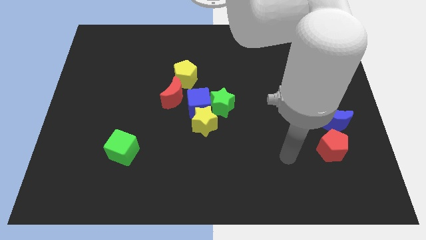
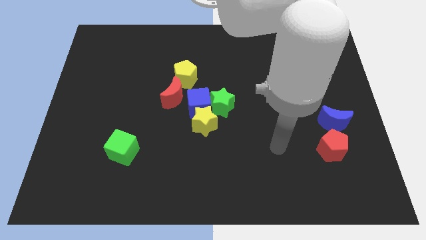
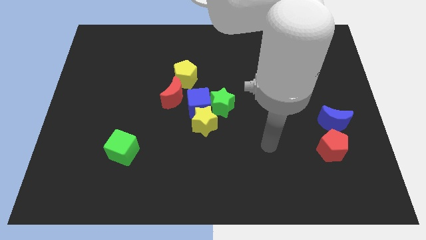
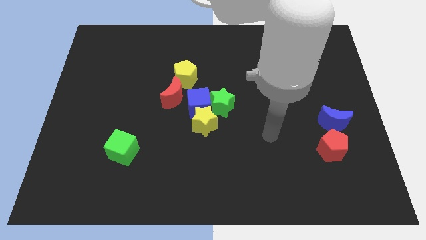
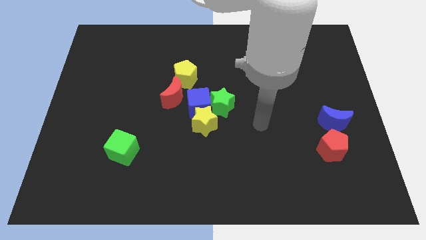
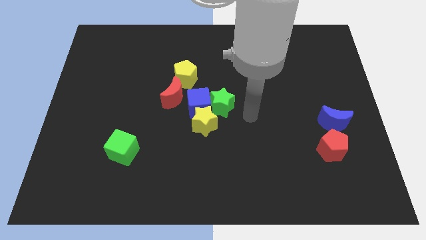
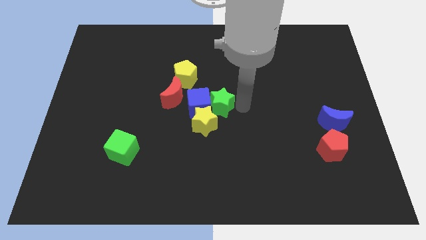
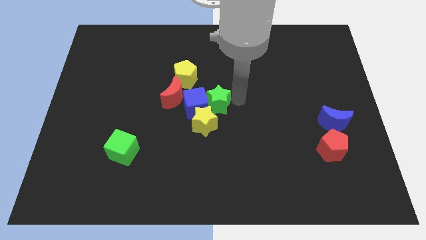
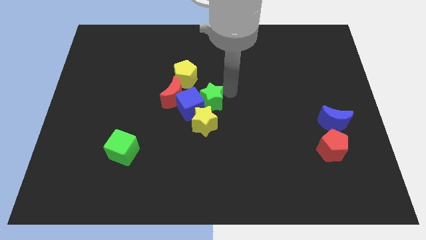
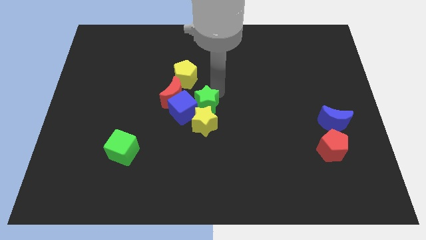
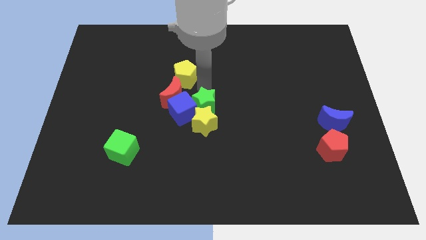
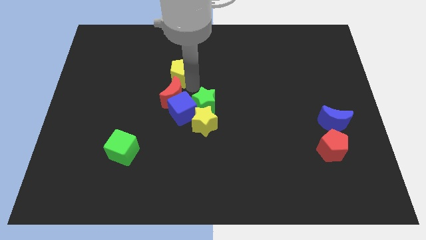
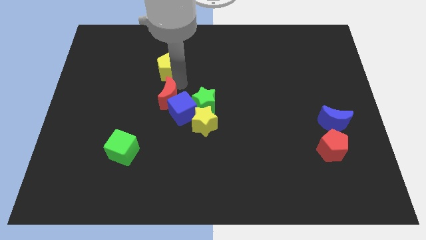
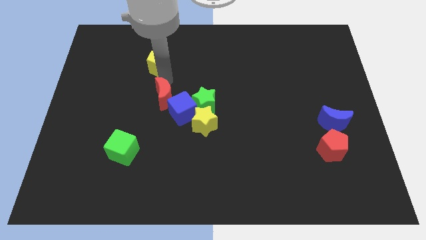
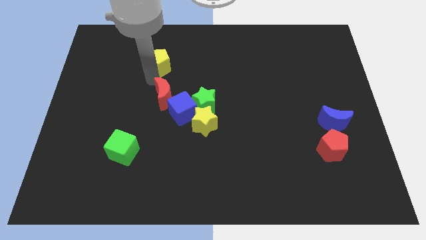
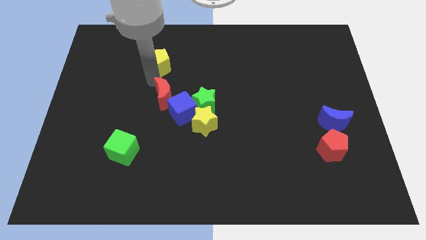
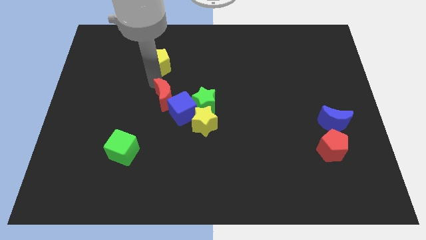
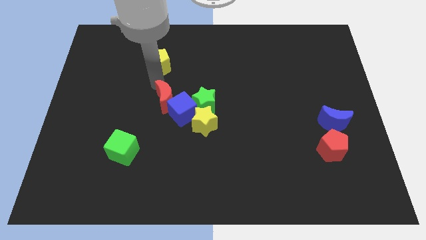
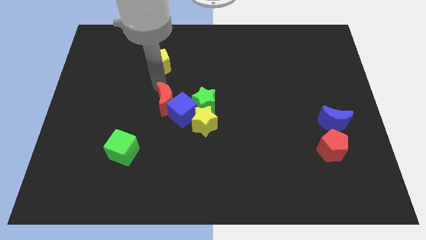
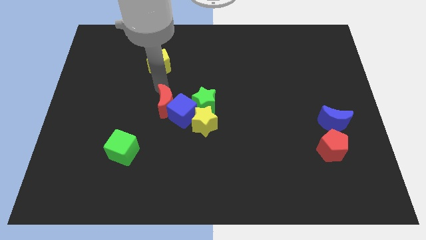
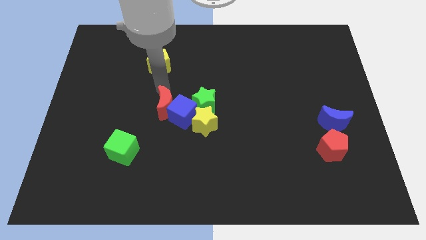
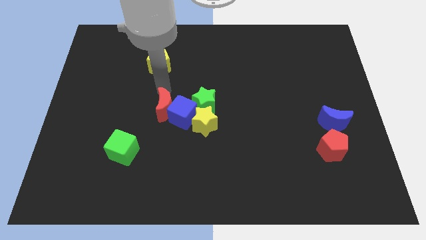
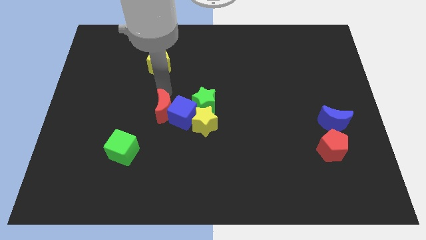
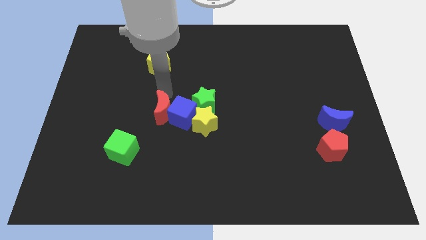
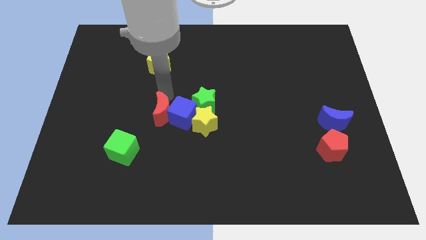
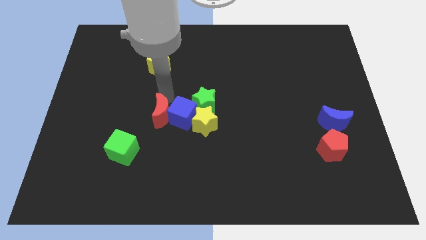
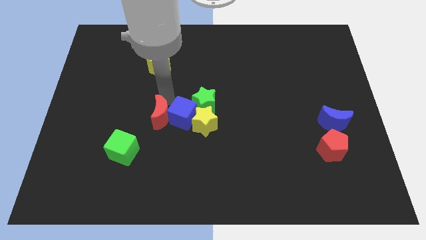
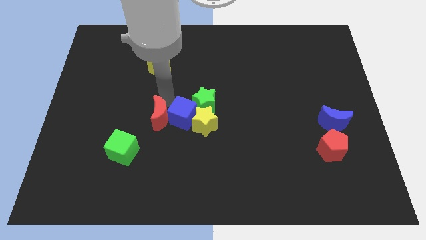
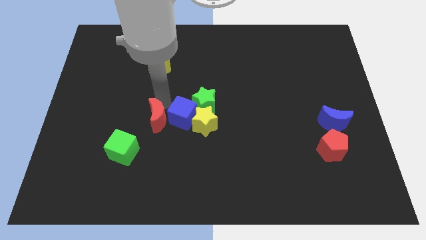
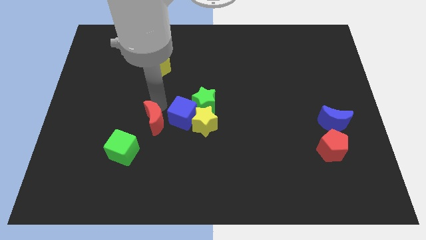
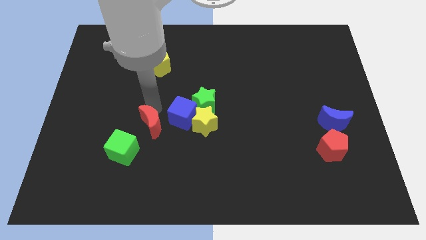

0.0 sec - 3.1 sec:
slightly push the red moon down

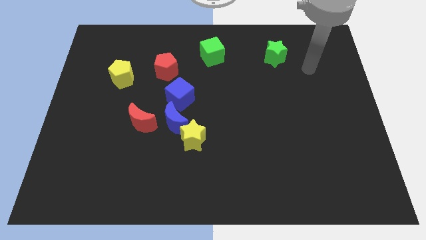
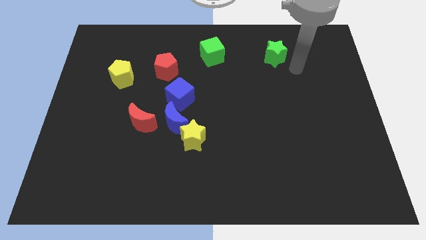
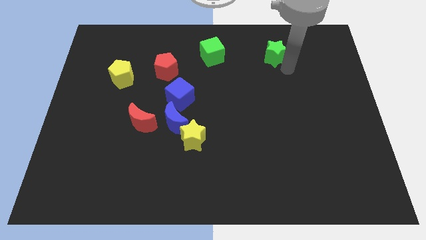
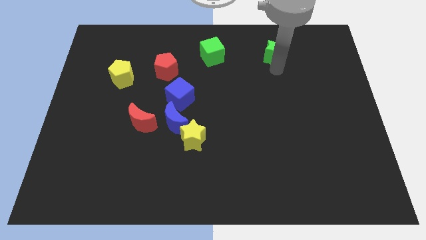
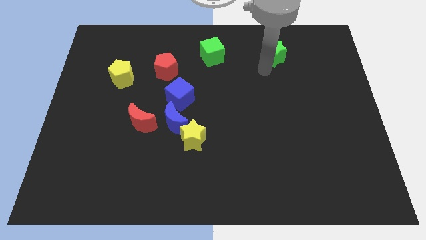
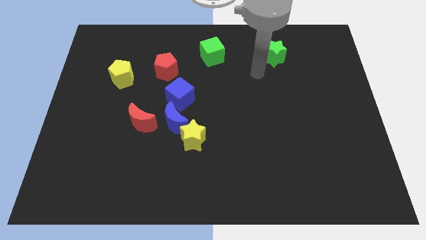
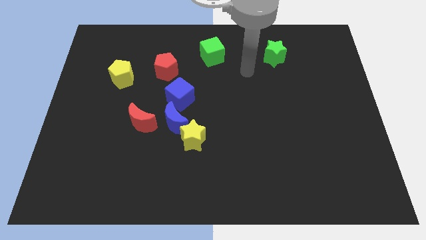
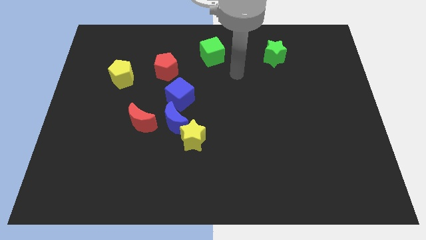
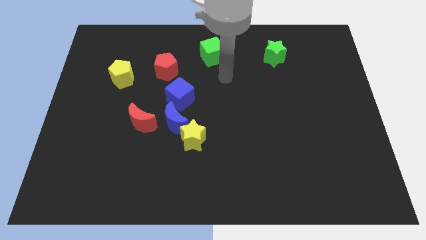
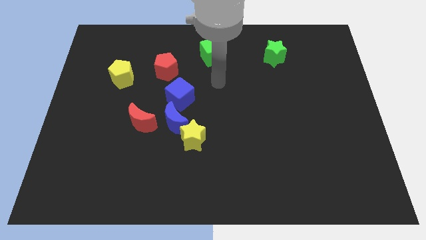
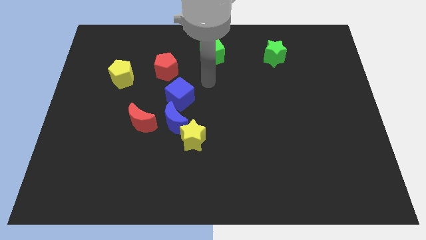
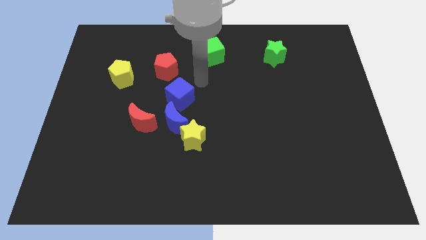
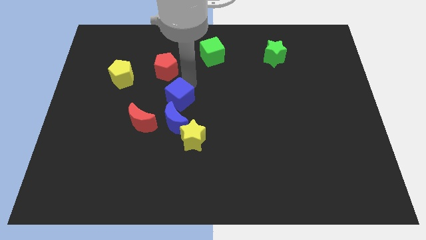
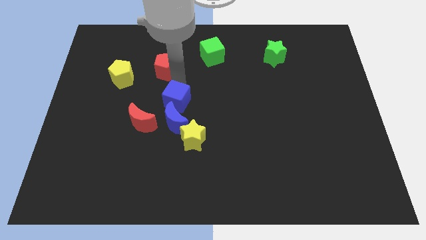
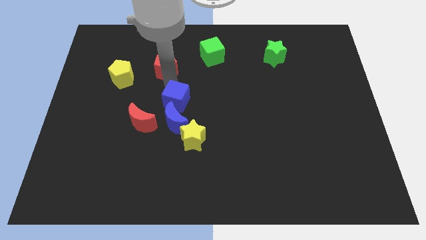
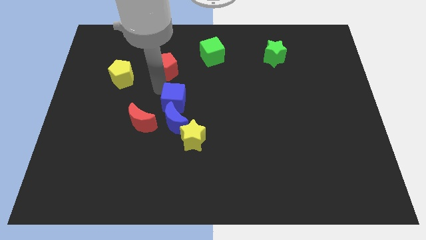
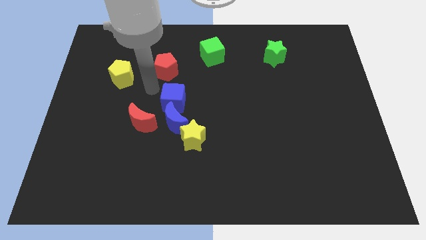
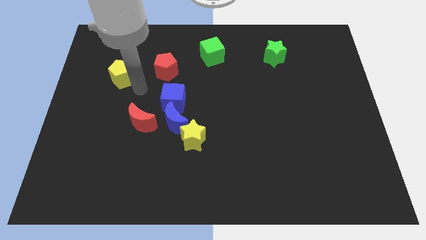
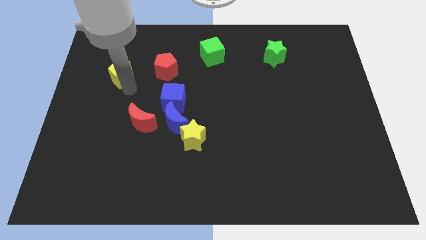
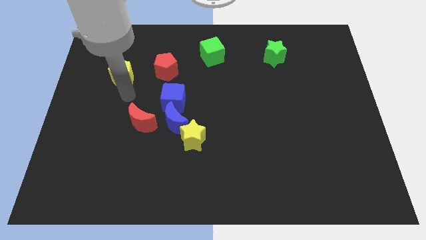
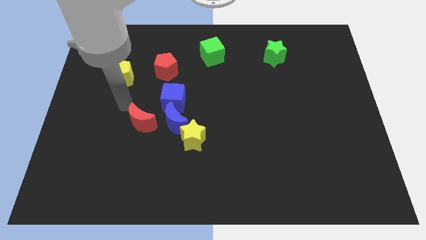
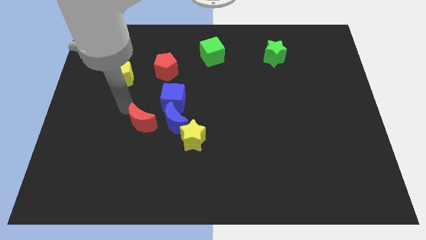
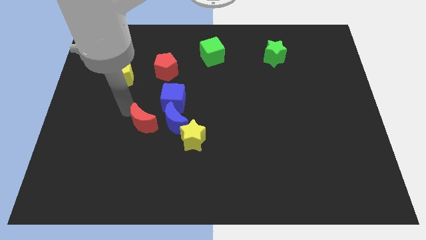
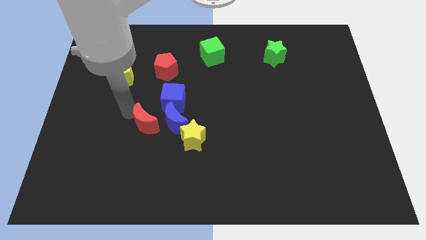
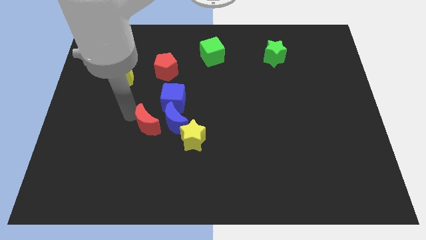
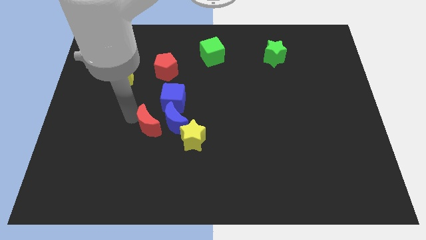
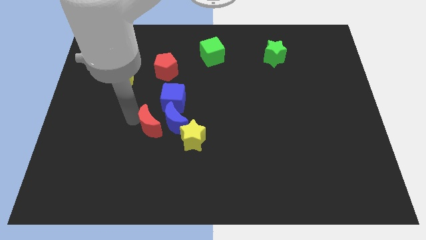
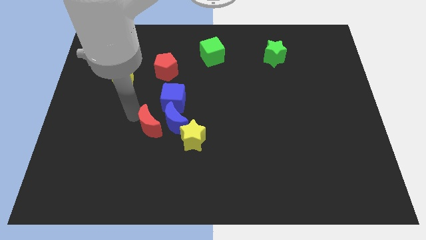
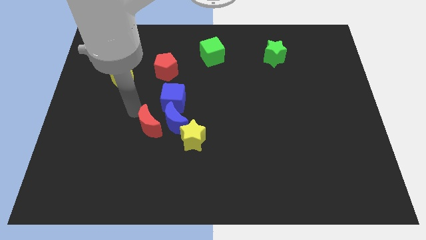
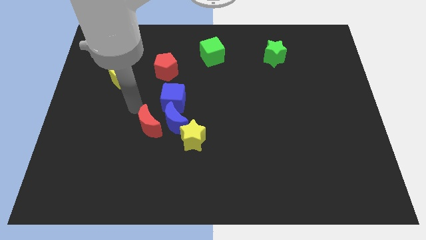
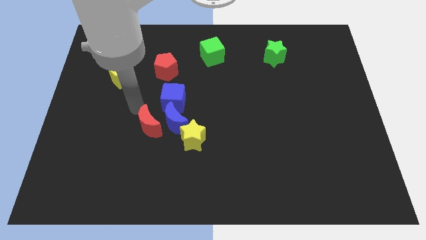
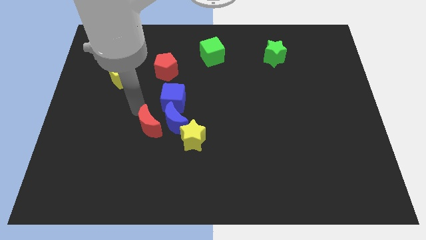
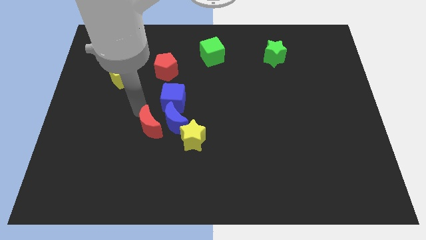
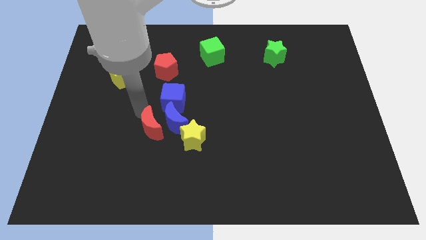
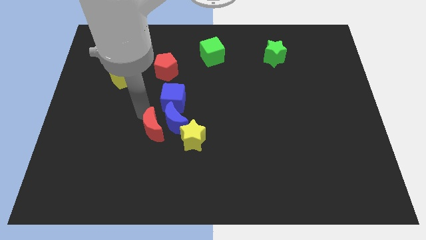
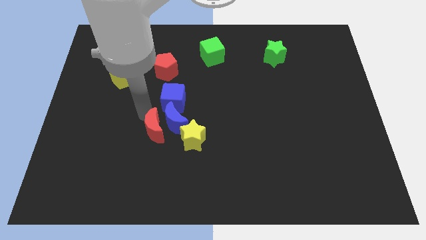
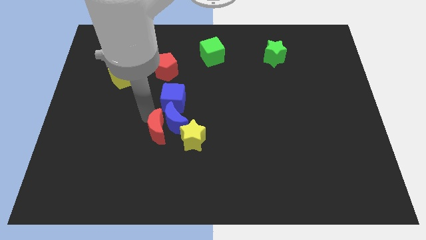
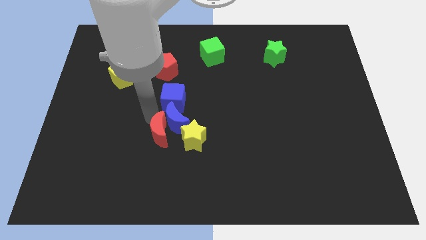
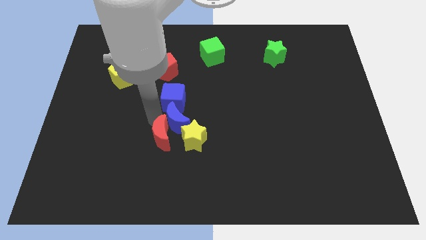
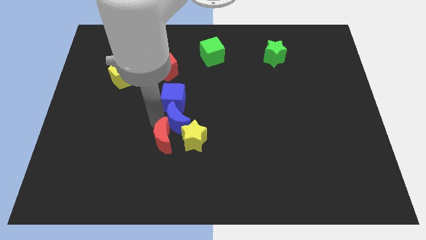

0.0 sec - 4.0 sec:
slightly move the red moon diagonally downwards and to the right

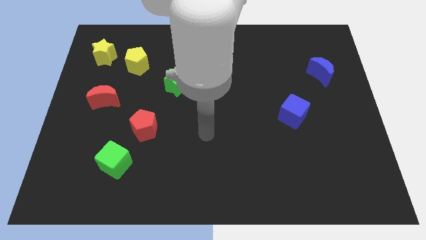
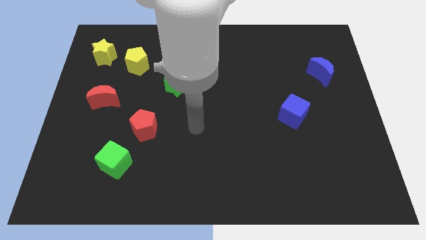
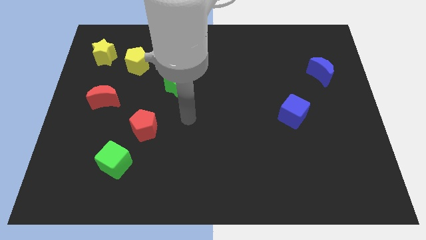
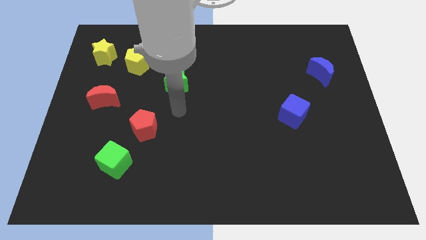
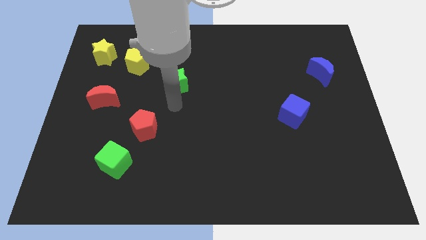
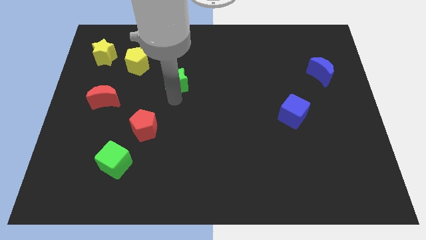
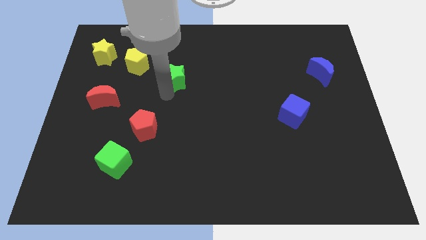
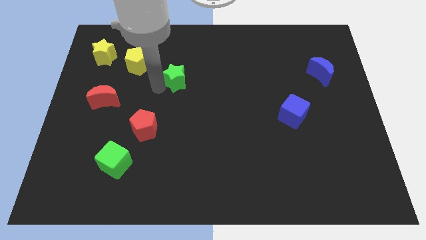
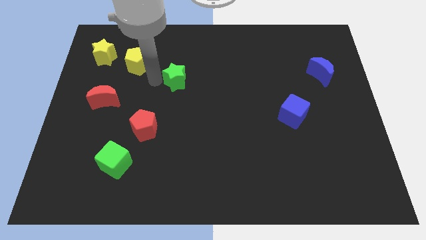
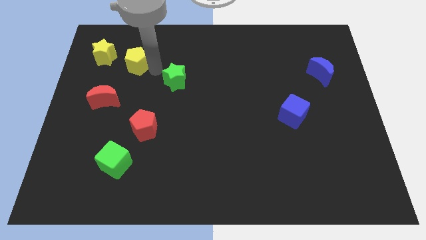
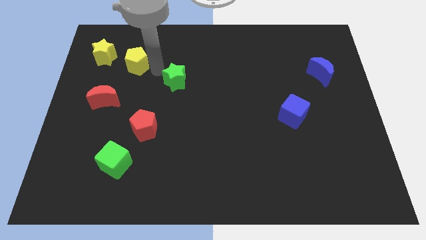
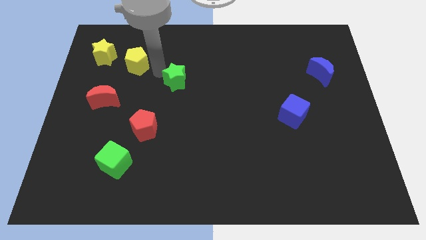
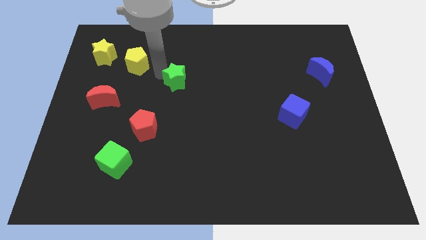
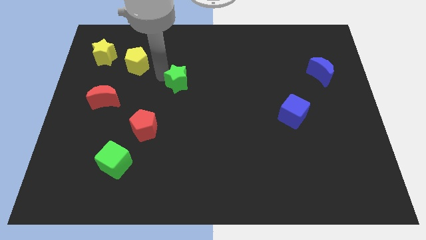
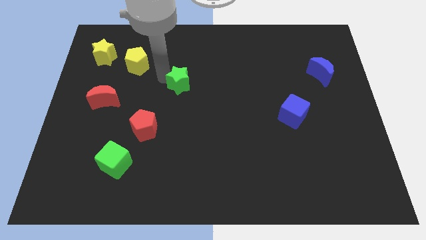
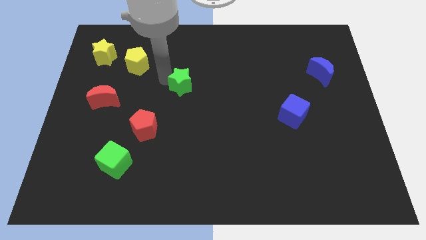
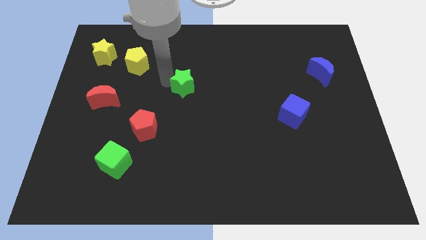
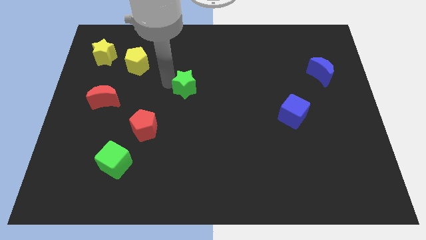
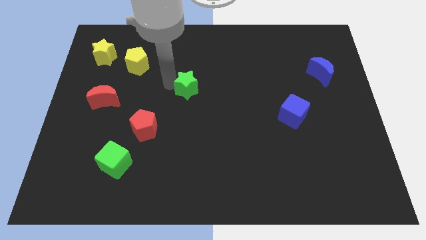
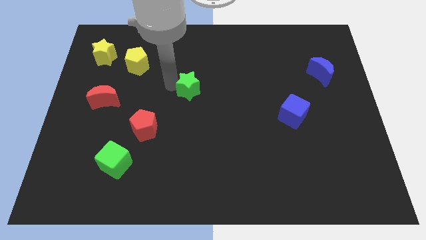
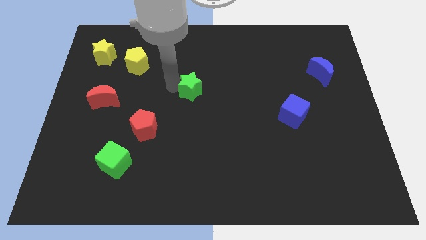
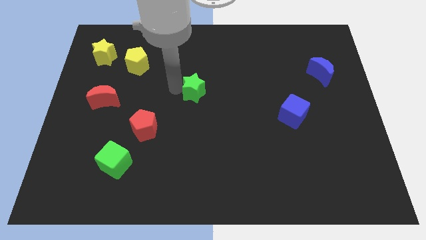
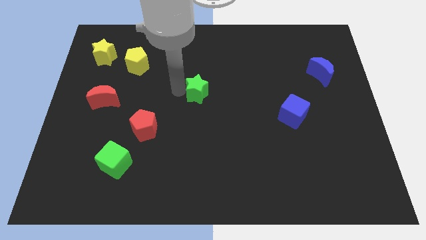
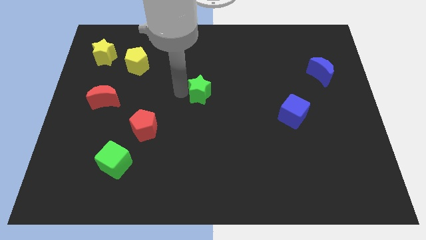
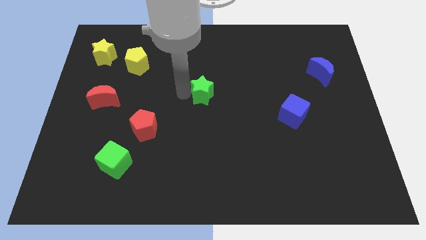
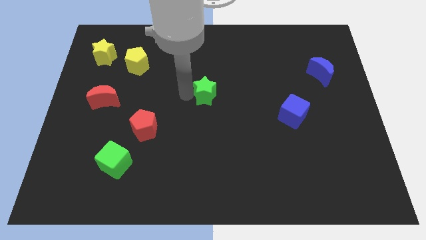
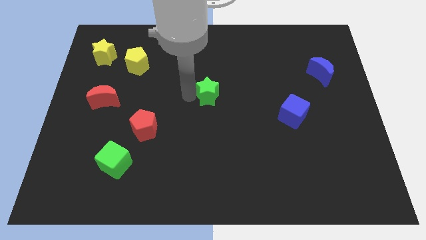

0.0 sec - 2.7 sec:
push the green star right somewhat
